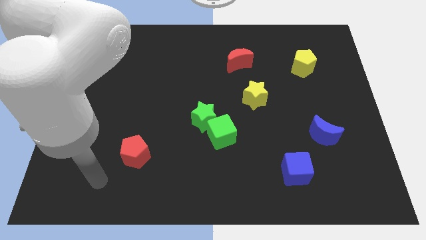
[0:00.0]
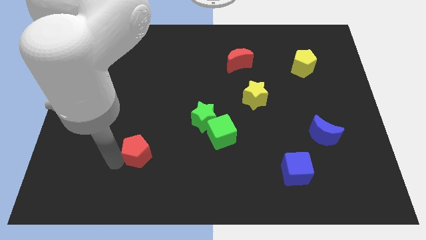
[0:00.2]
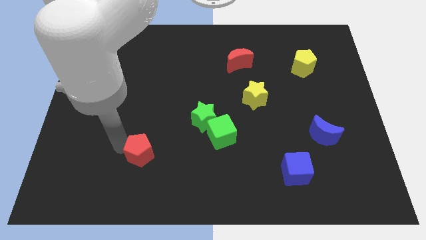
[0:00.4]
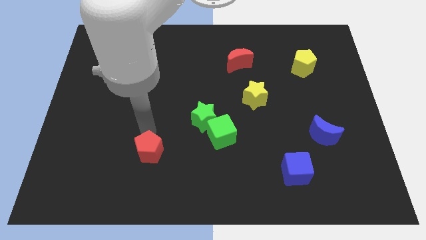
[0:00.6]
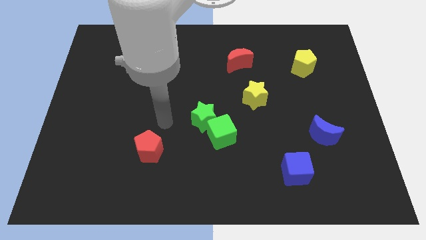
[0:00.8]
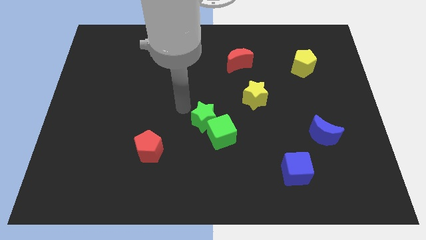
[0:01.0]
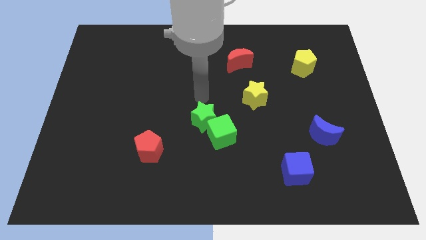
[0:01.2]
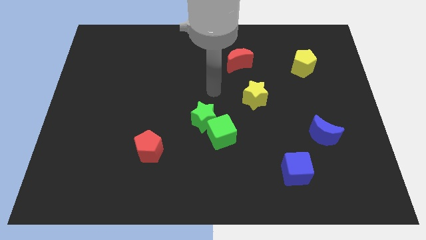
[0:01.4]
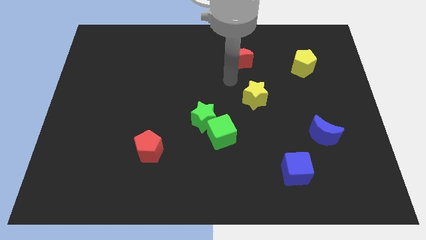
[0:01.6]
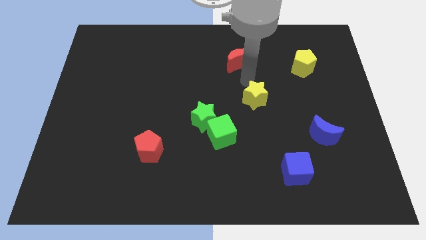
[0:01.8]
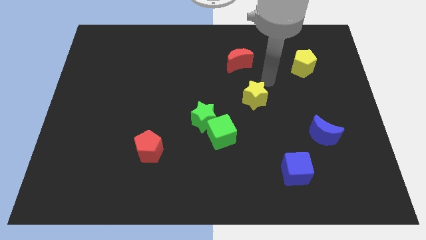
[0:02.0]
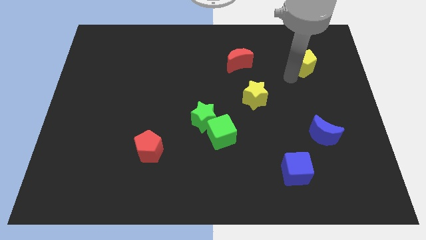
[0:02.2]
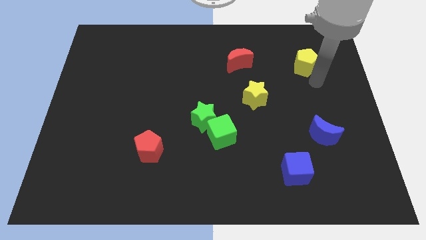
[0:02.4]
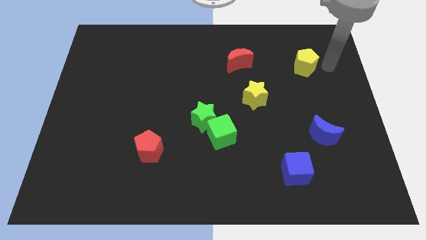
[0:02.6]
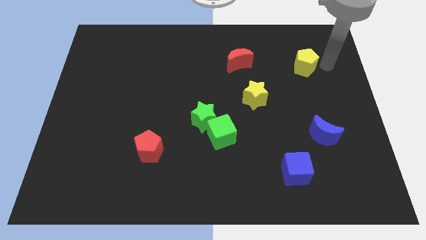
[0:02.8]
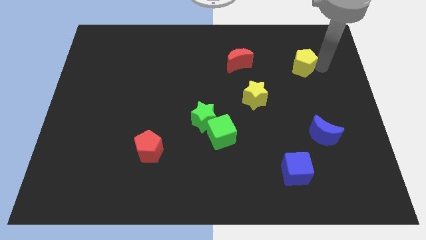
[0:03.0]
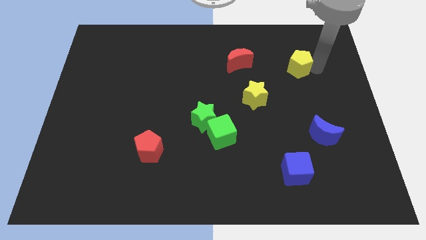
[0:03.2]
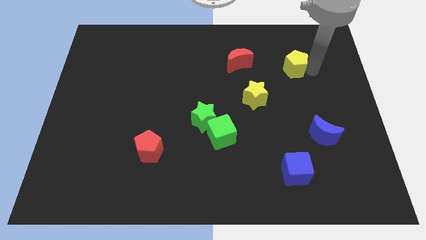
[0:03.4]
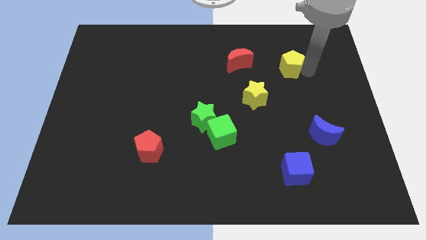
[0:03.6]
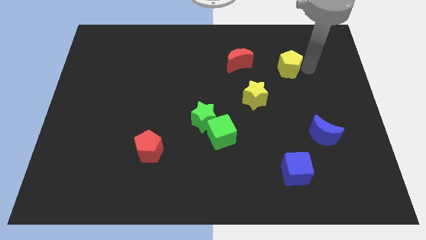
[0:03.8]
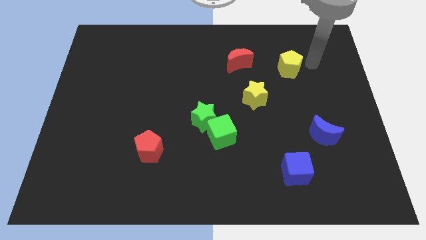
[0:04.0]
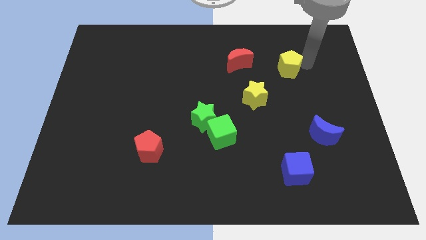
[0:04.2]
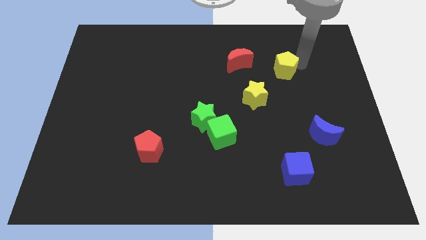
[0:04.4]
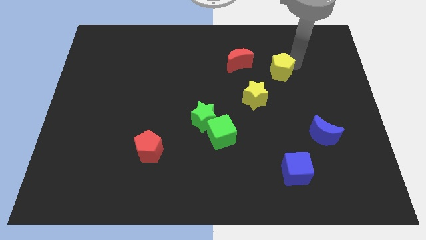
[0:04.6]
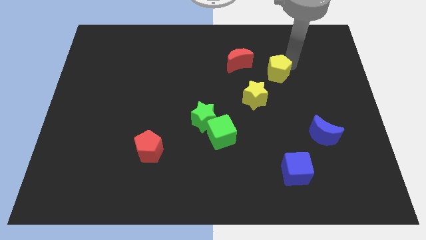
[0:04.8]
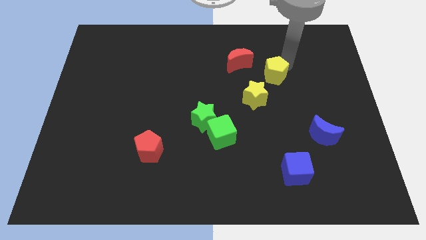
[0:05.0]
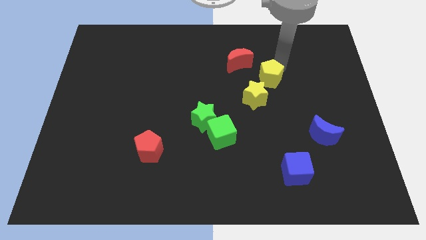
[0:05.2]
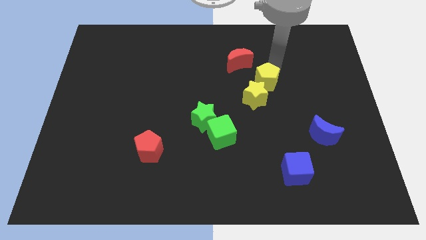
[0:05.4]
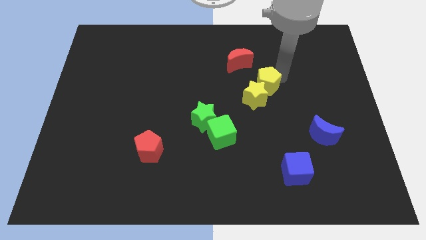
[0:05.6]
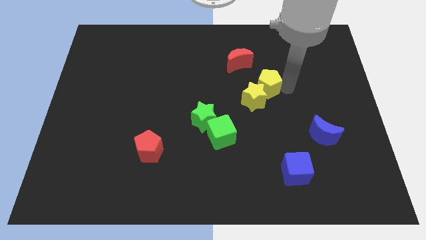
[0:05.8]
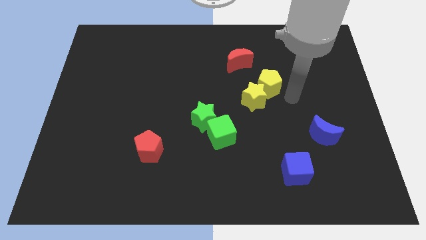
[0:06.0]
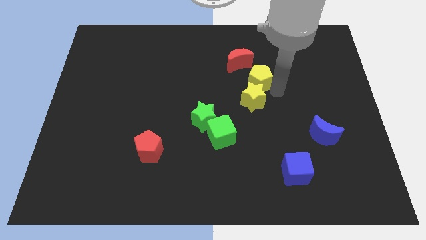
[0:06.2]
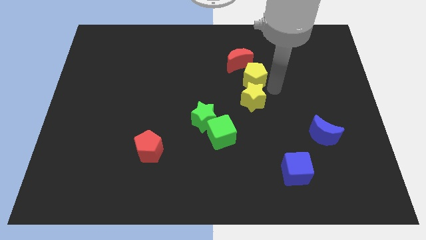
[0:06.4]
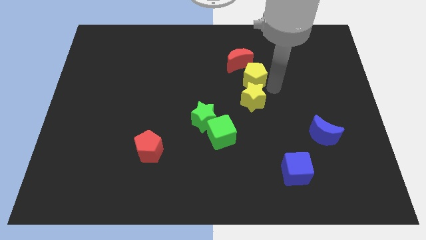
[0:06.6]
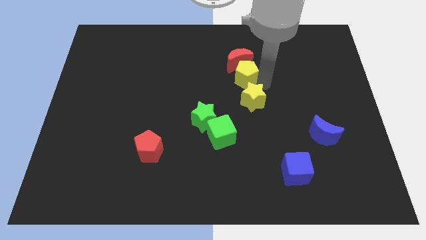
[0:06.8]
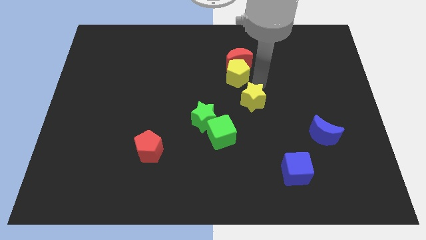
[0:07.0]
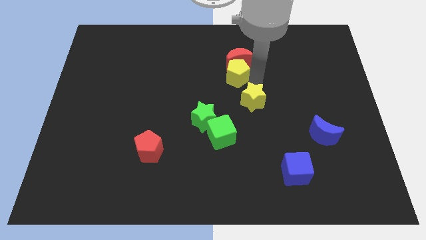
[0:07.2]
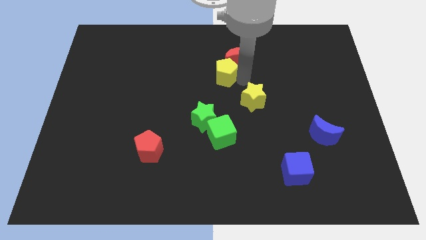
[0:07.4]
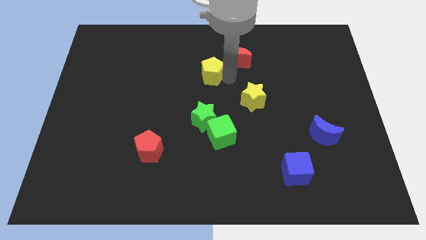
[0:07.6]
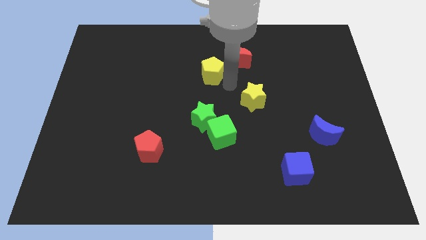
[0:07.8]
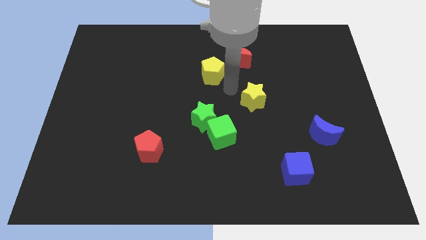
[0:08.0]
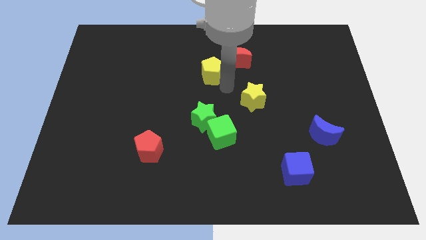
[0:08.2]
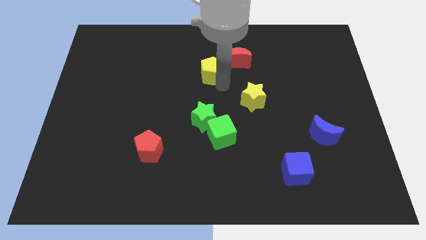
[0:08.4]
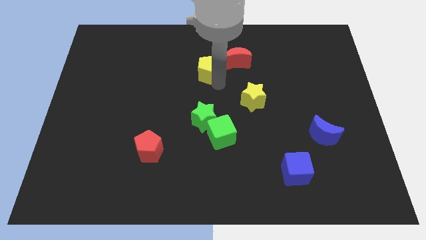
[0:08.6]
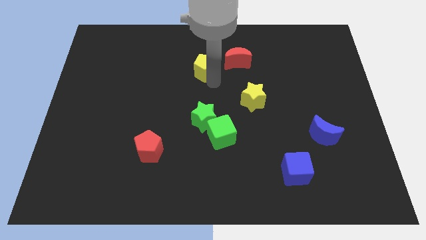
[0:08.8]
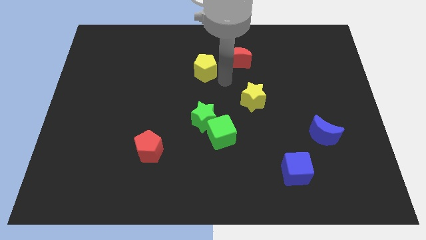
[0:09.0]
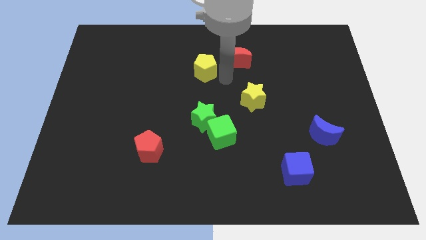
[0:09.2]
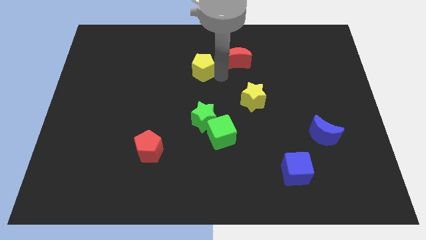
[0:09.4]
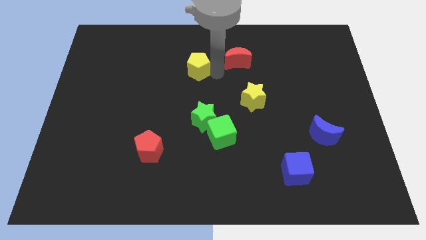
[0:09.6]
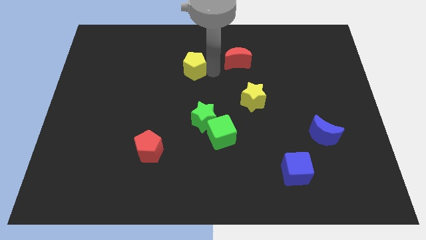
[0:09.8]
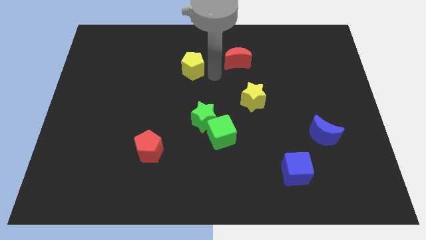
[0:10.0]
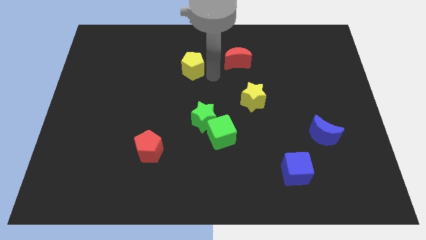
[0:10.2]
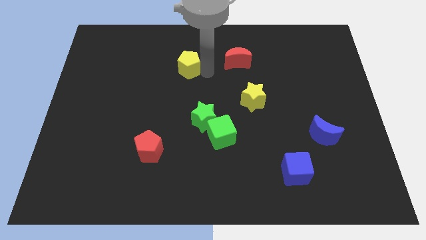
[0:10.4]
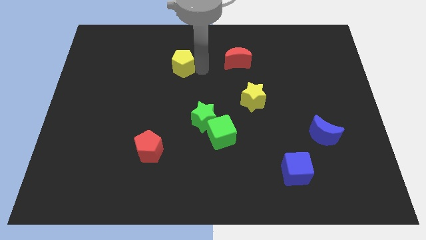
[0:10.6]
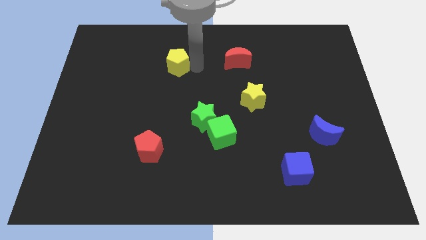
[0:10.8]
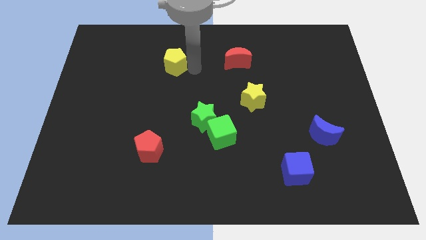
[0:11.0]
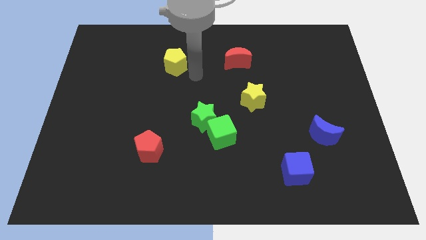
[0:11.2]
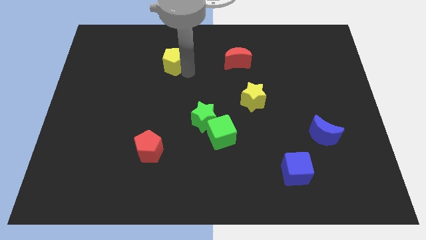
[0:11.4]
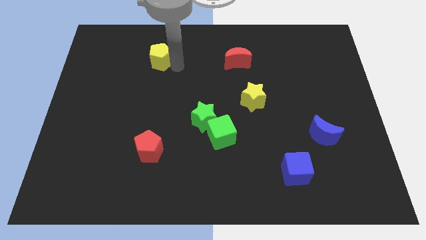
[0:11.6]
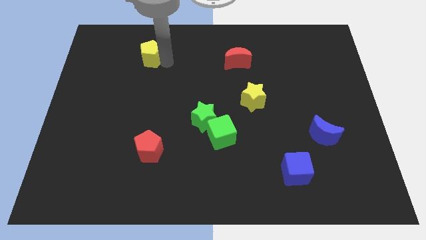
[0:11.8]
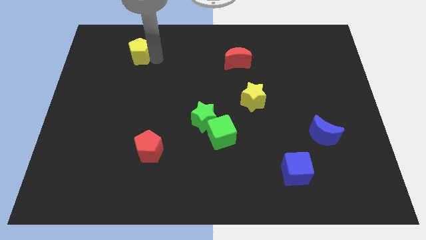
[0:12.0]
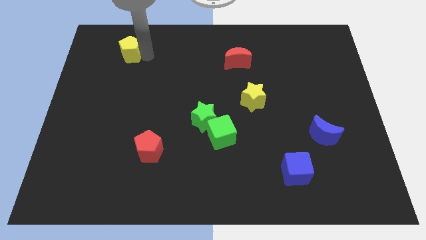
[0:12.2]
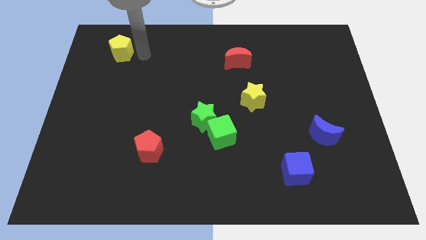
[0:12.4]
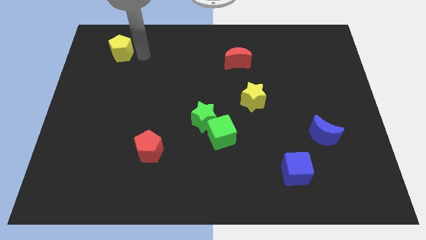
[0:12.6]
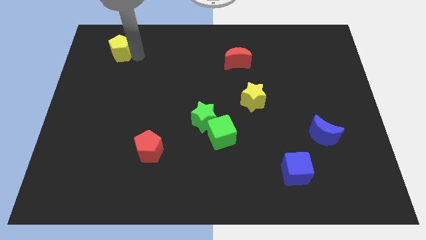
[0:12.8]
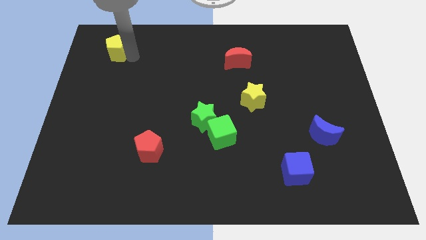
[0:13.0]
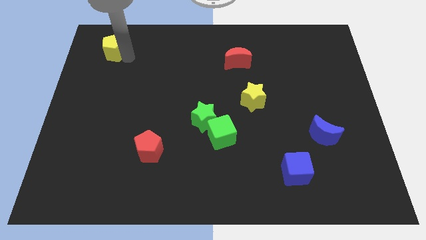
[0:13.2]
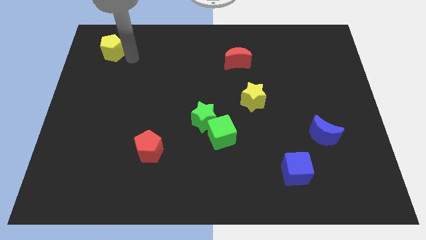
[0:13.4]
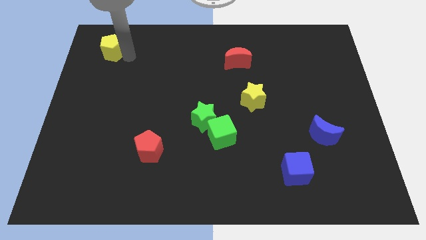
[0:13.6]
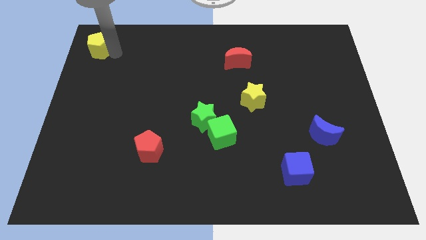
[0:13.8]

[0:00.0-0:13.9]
put the yellow pentagon to the top left
